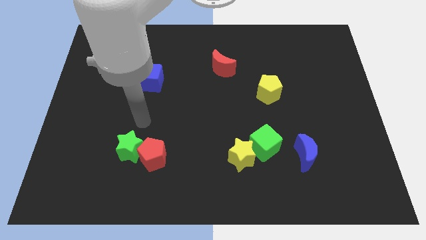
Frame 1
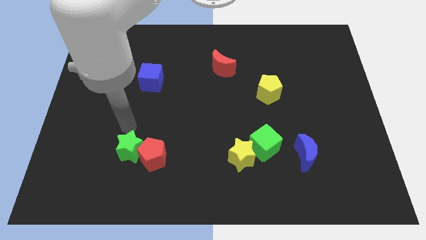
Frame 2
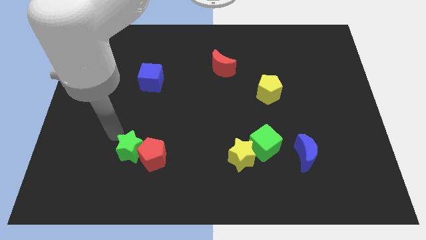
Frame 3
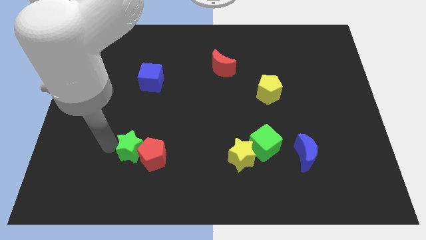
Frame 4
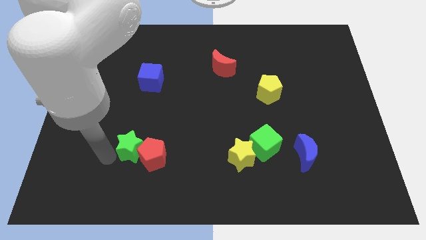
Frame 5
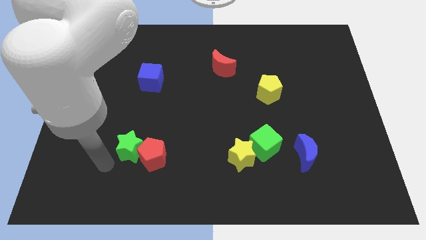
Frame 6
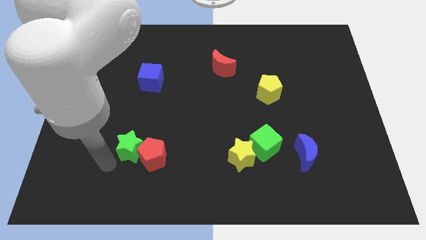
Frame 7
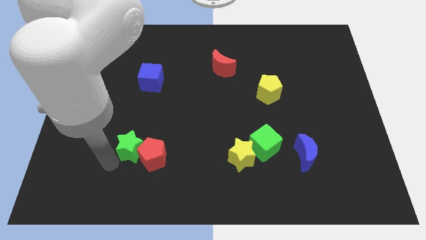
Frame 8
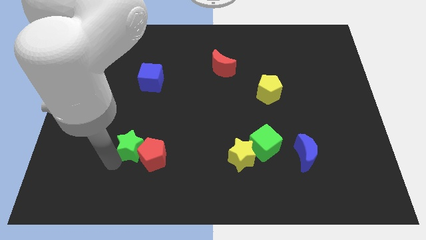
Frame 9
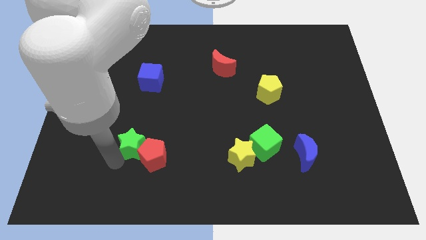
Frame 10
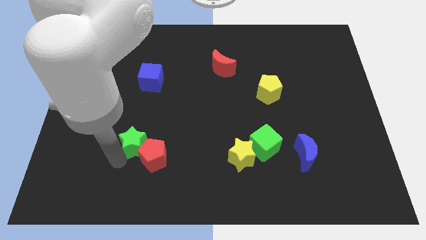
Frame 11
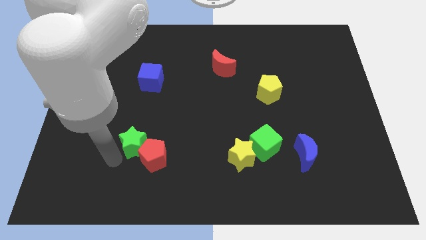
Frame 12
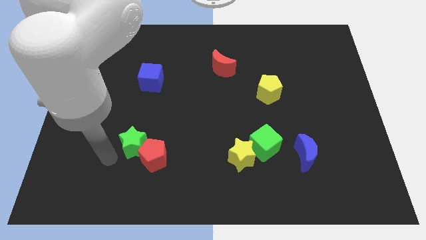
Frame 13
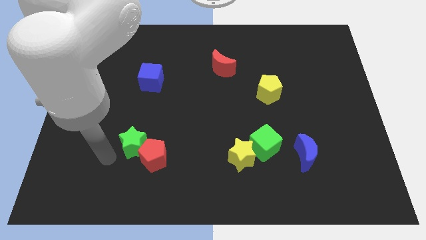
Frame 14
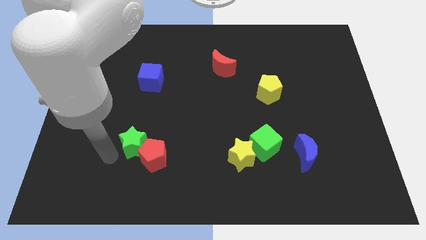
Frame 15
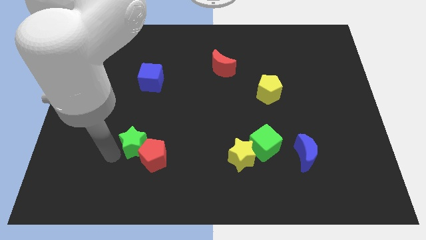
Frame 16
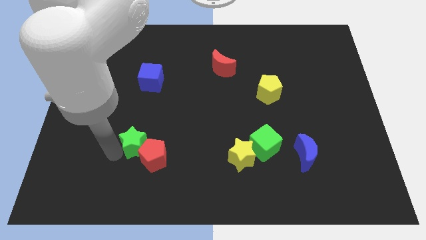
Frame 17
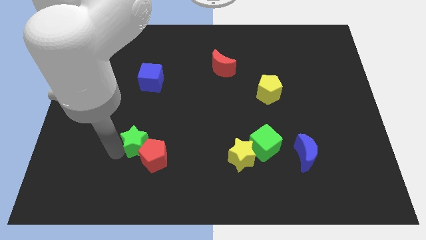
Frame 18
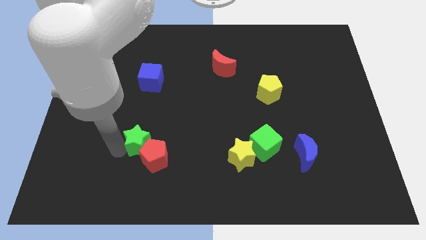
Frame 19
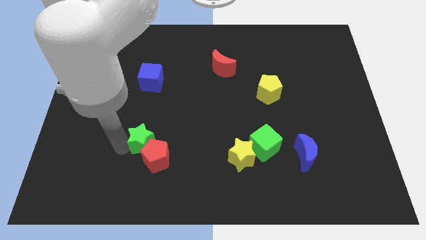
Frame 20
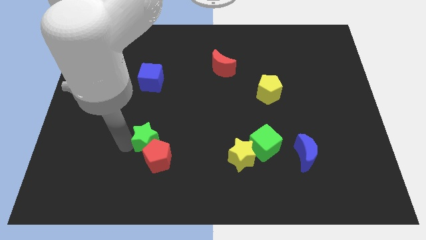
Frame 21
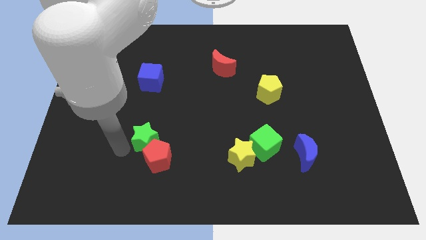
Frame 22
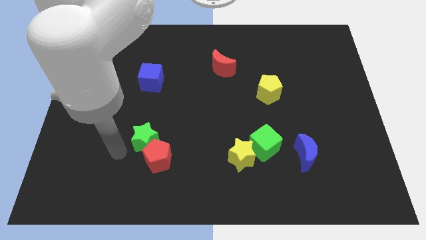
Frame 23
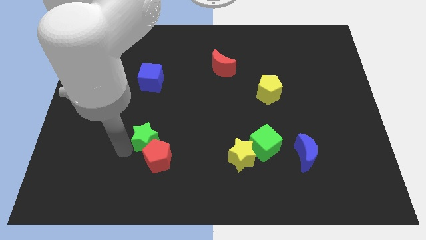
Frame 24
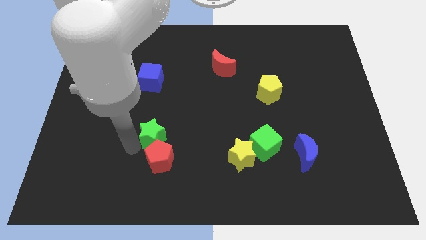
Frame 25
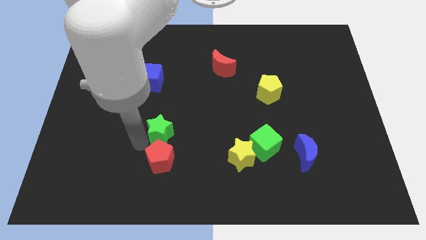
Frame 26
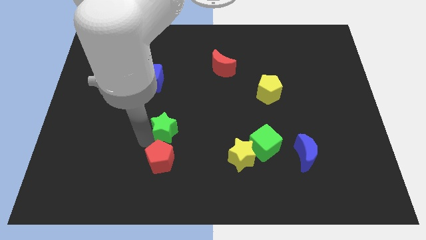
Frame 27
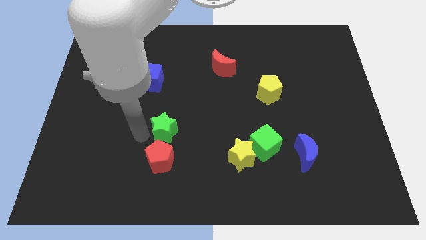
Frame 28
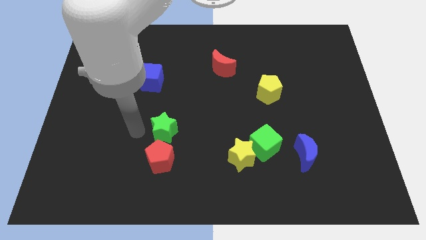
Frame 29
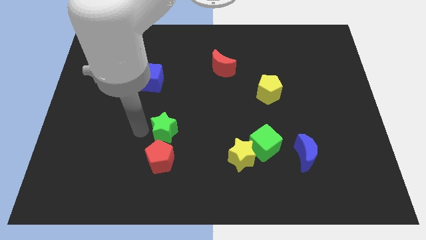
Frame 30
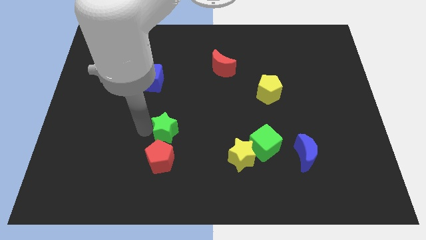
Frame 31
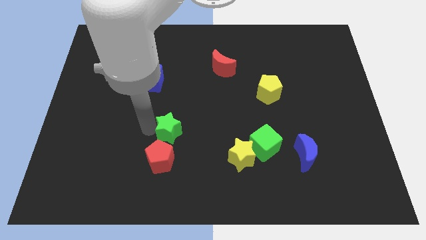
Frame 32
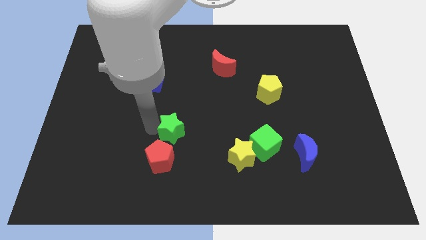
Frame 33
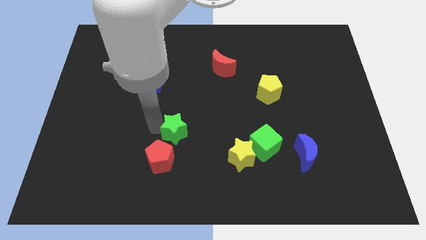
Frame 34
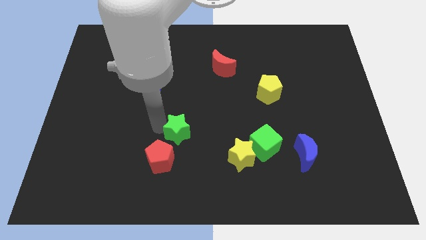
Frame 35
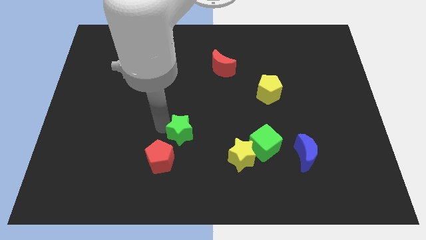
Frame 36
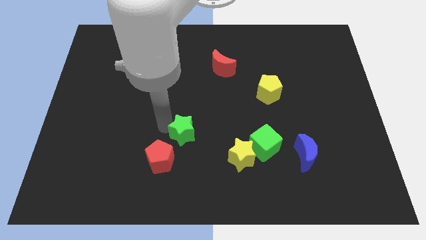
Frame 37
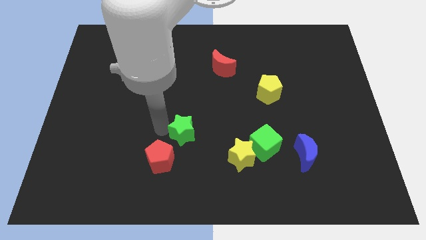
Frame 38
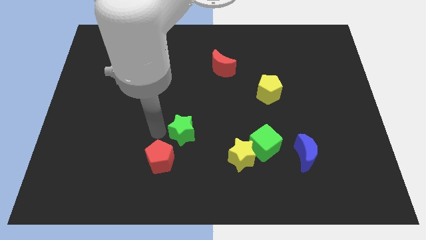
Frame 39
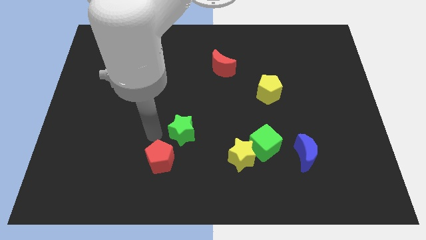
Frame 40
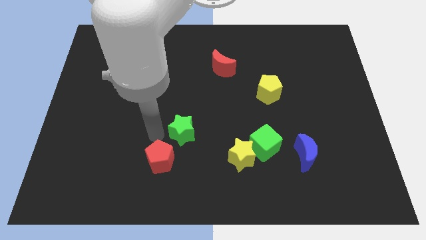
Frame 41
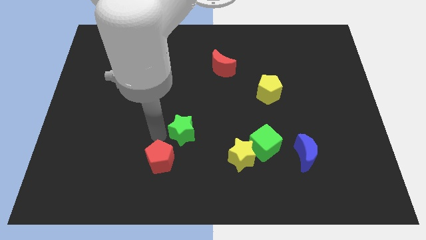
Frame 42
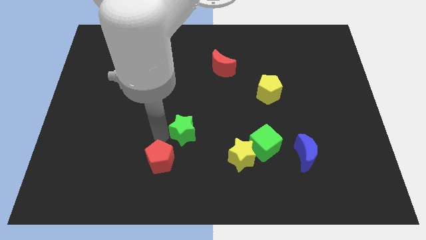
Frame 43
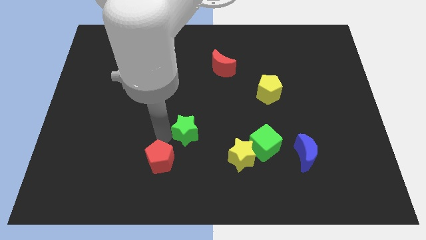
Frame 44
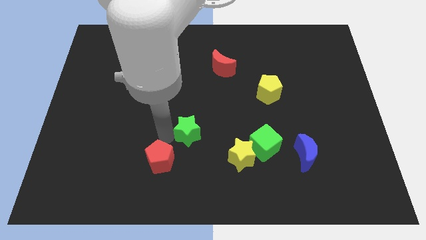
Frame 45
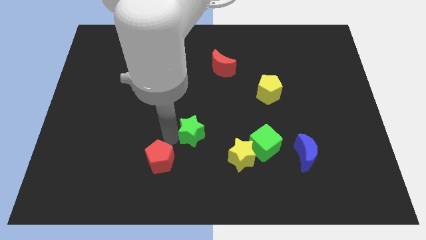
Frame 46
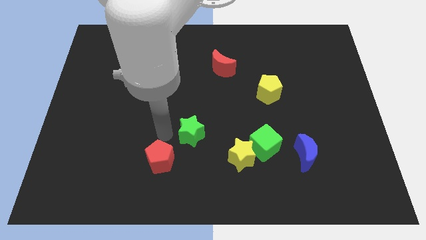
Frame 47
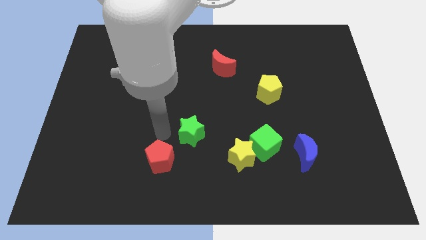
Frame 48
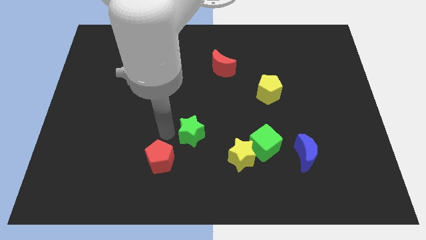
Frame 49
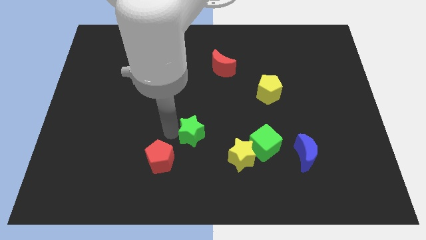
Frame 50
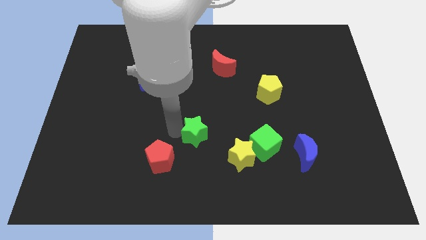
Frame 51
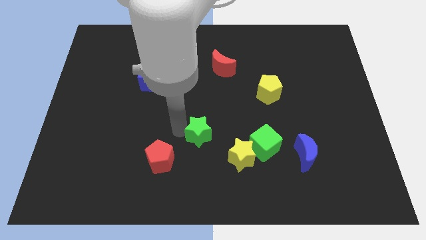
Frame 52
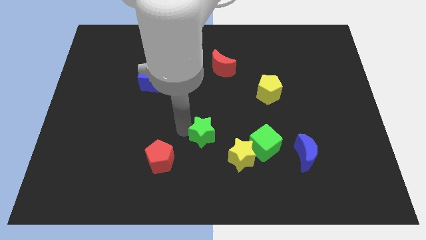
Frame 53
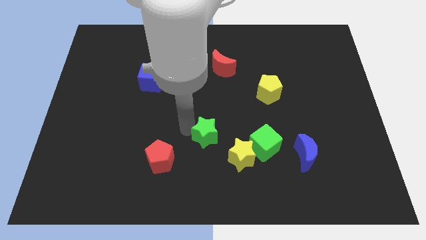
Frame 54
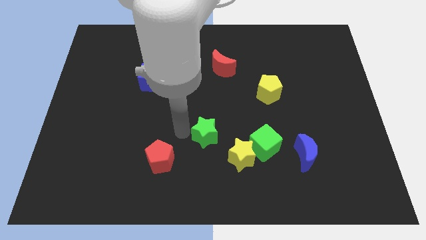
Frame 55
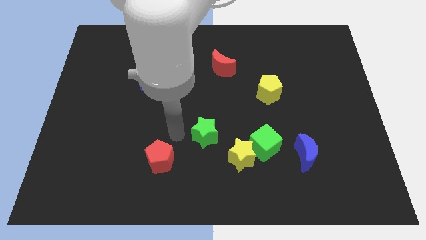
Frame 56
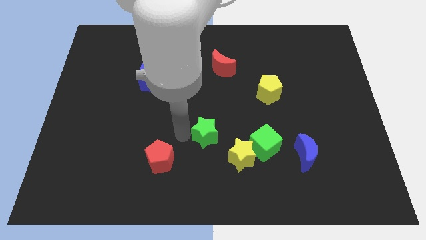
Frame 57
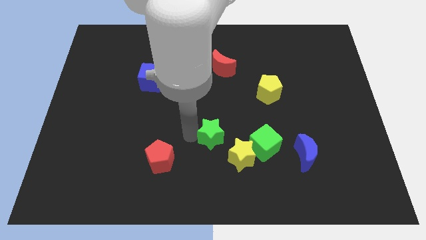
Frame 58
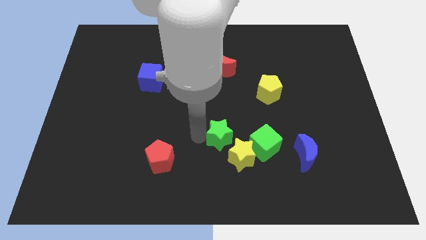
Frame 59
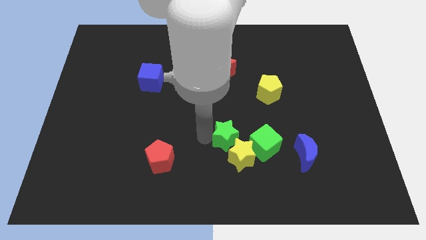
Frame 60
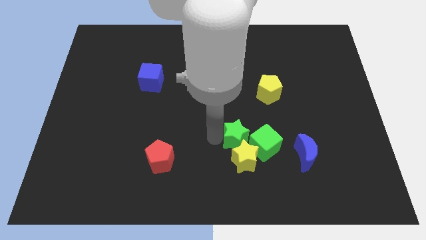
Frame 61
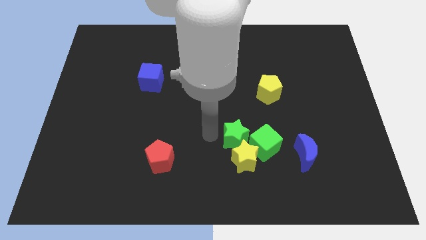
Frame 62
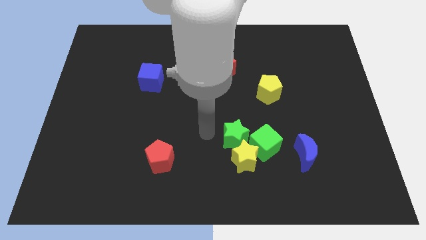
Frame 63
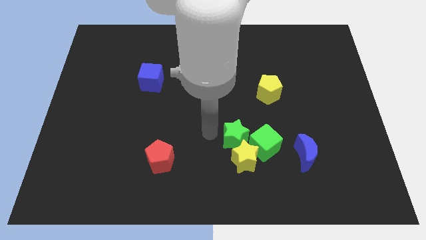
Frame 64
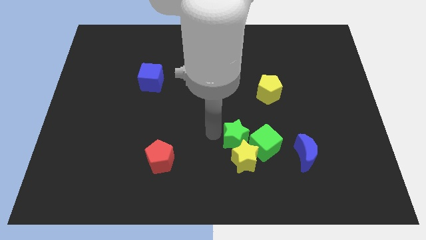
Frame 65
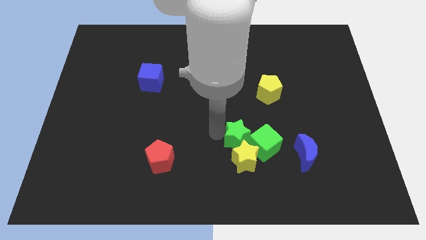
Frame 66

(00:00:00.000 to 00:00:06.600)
put the green star close to the green cube

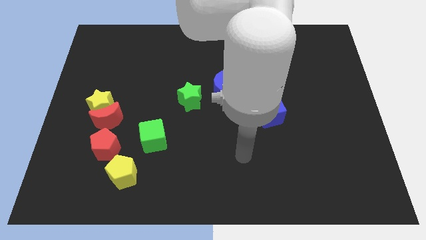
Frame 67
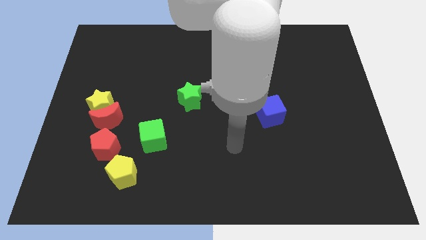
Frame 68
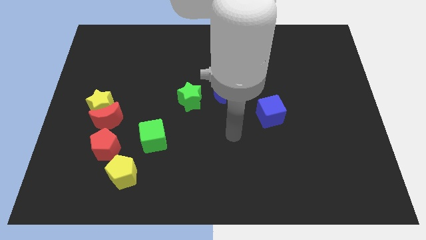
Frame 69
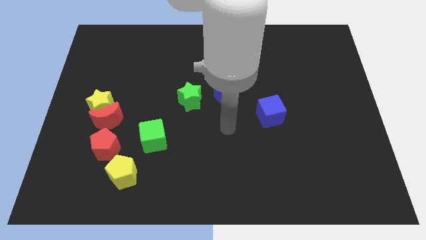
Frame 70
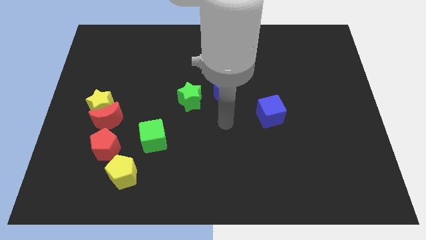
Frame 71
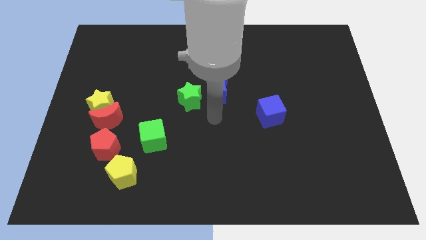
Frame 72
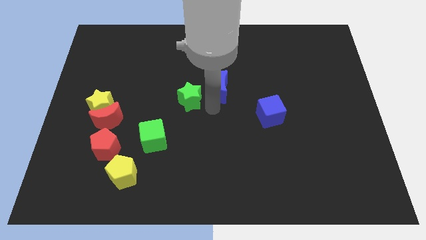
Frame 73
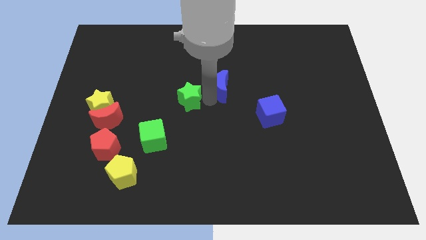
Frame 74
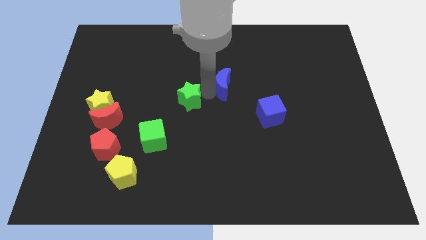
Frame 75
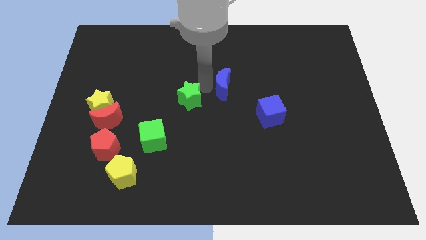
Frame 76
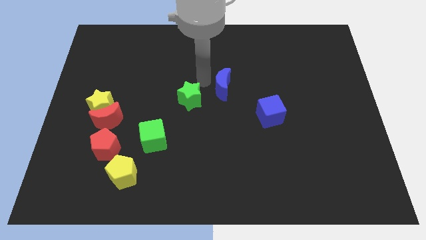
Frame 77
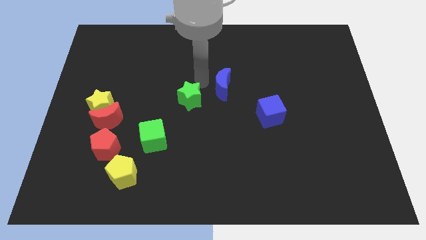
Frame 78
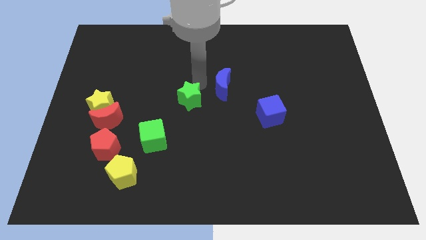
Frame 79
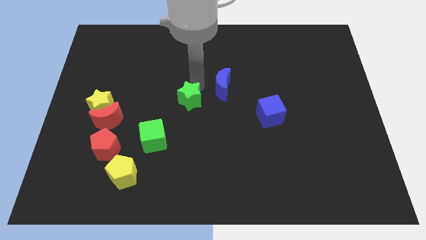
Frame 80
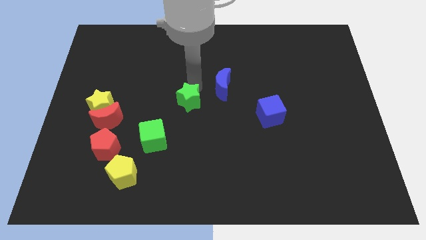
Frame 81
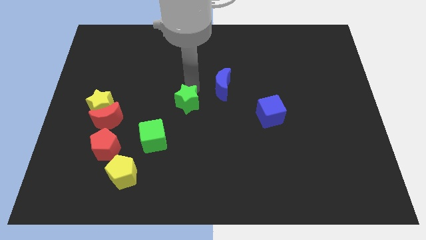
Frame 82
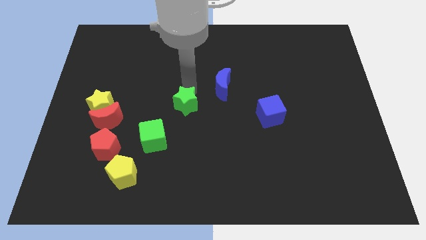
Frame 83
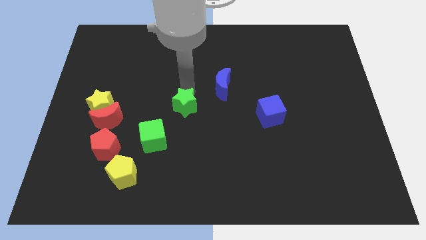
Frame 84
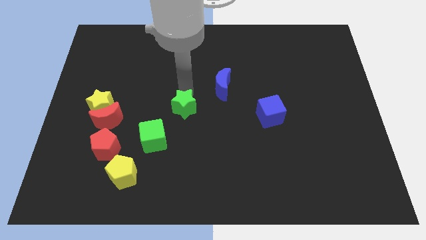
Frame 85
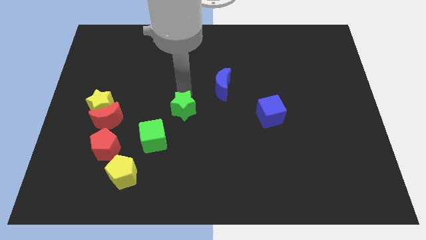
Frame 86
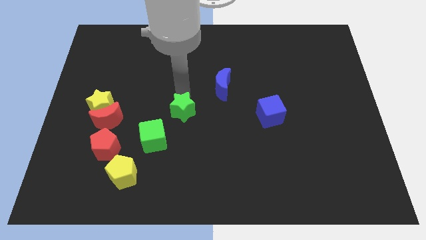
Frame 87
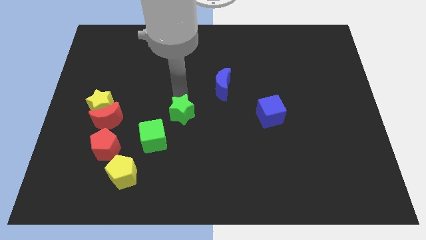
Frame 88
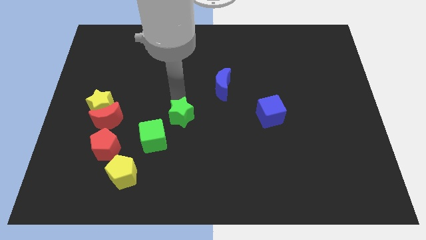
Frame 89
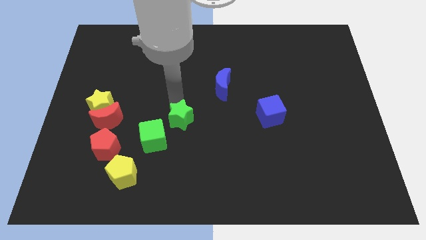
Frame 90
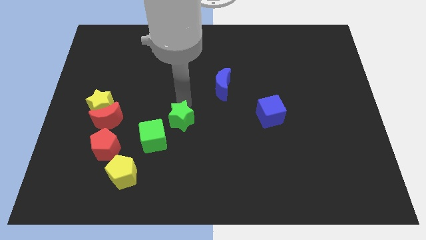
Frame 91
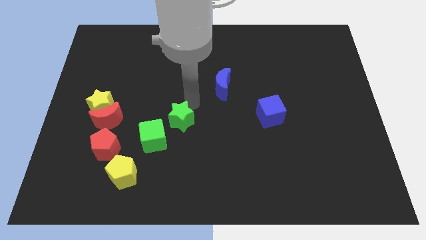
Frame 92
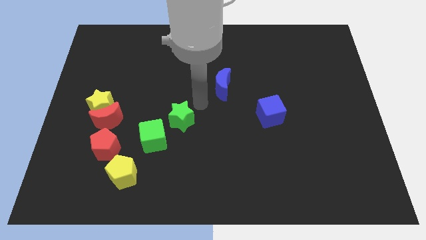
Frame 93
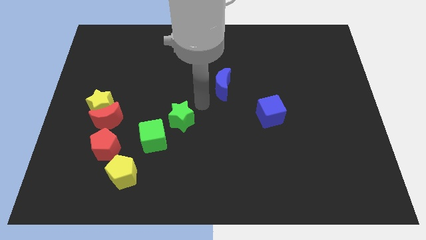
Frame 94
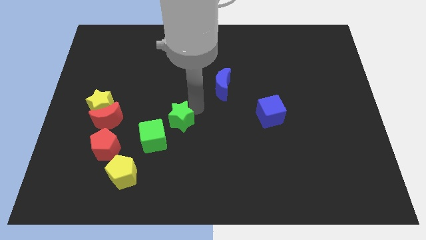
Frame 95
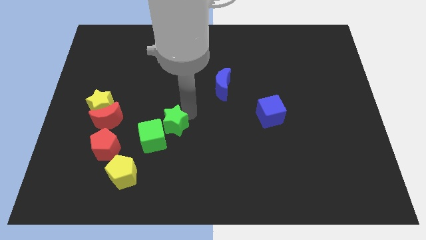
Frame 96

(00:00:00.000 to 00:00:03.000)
push the green star close to the green cube
